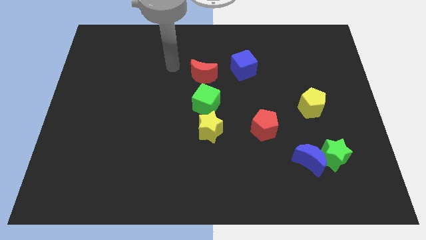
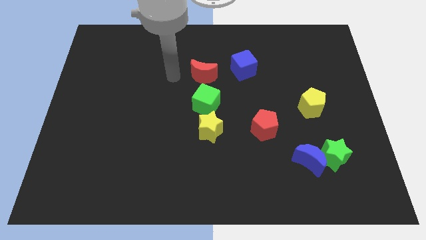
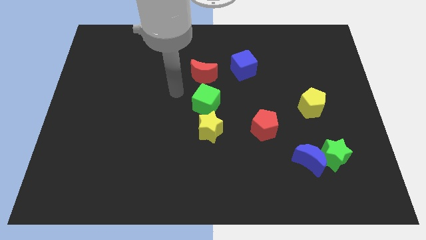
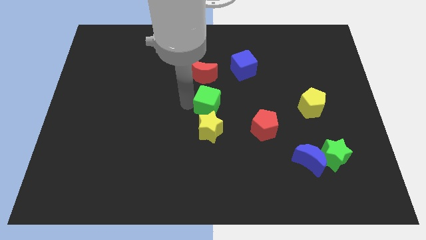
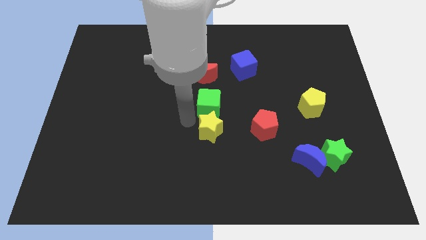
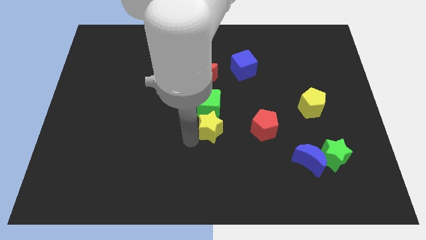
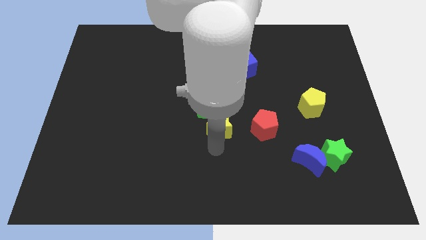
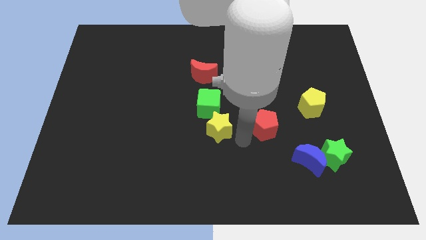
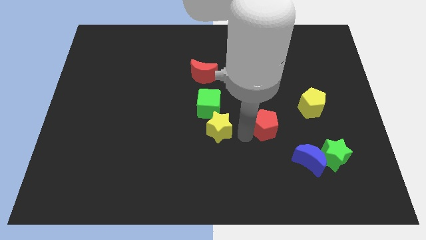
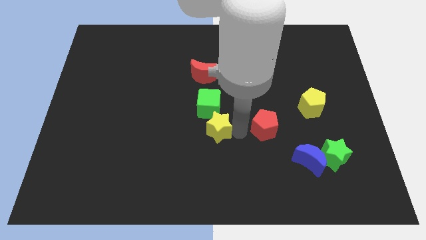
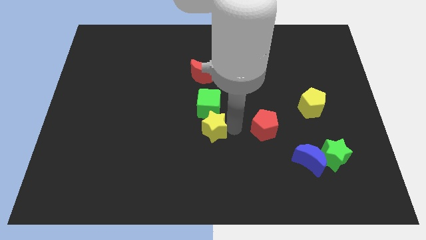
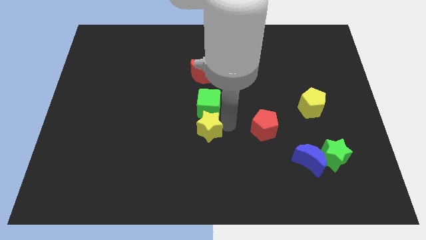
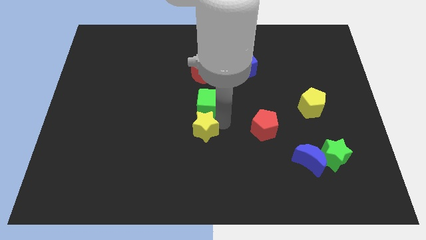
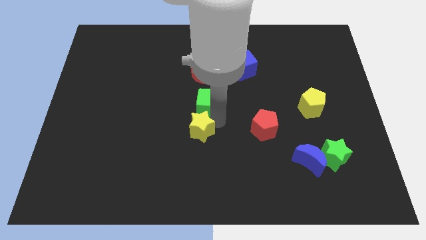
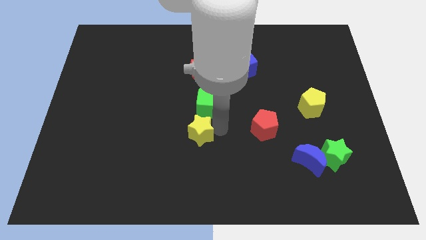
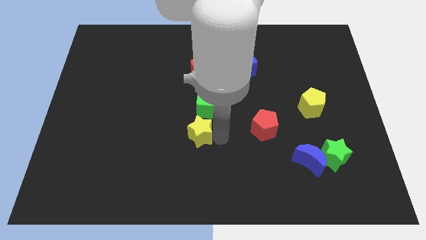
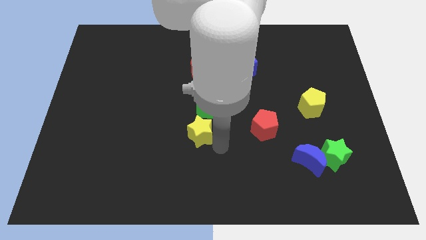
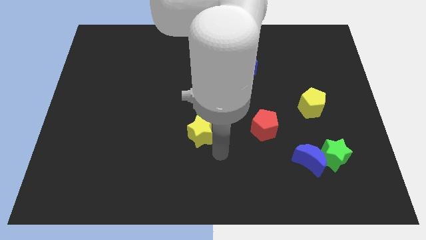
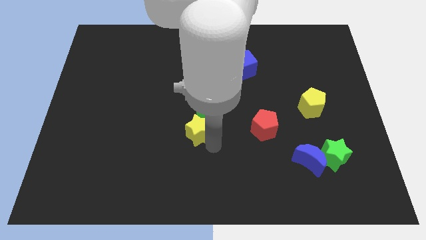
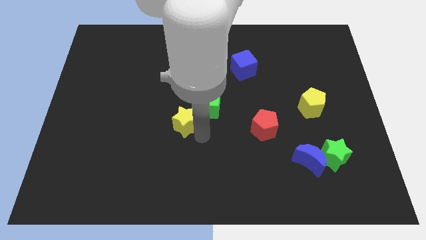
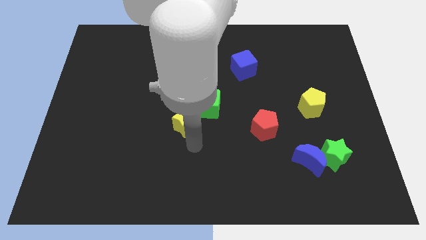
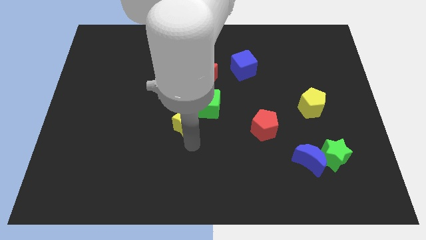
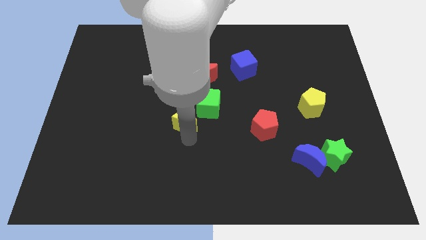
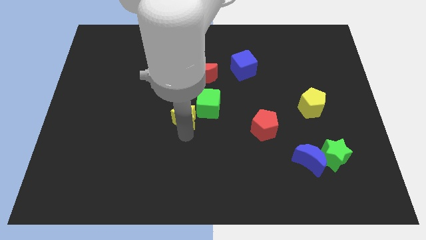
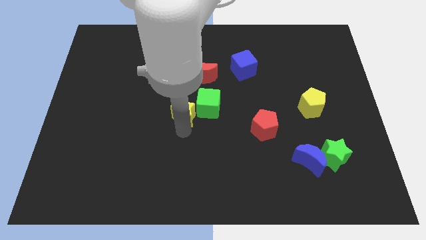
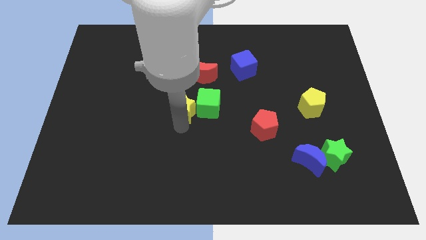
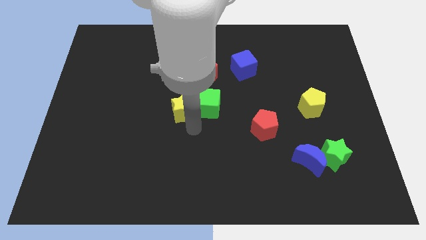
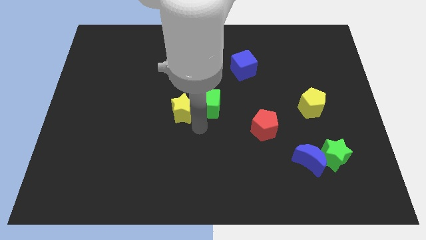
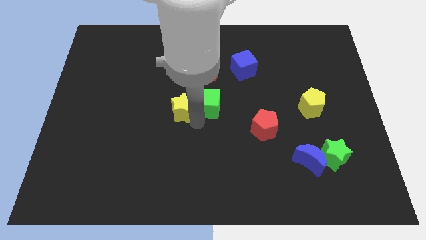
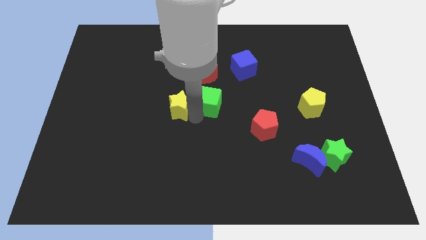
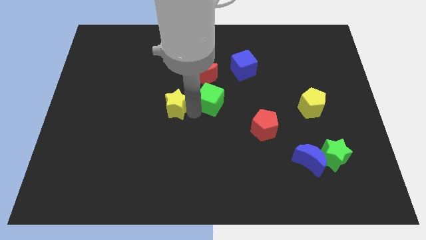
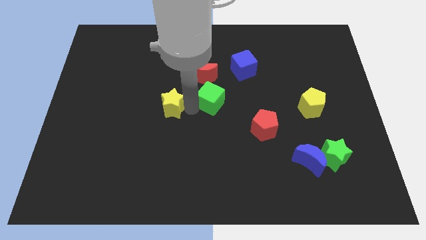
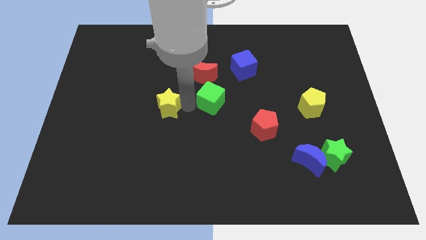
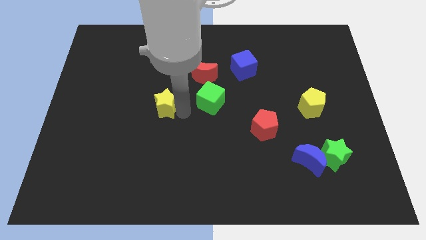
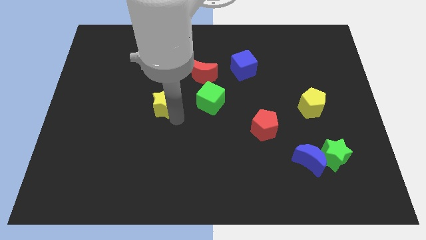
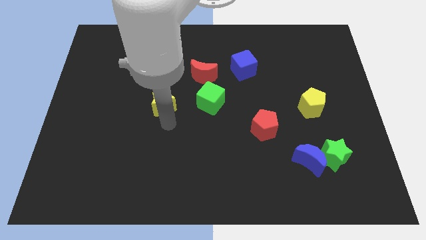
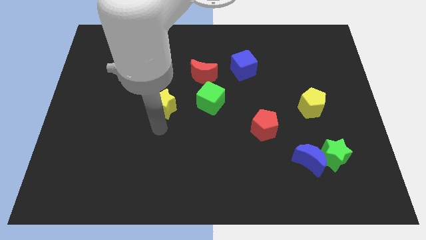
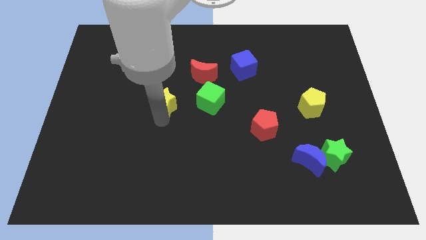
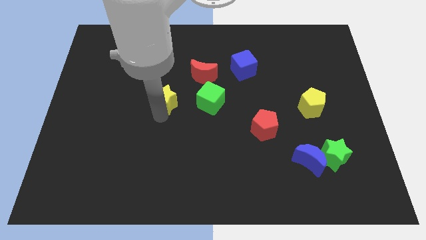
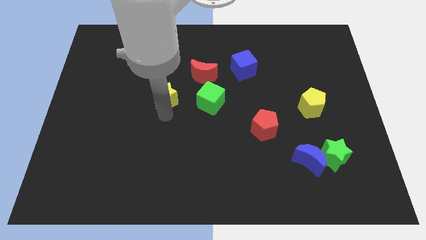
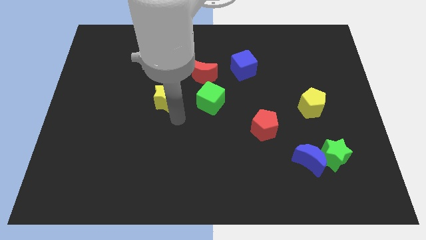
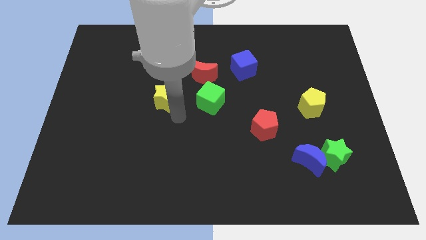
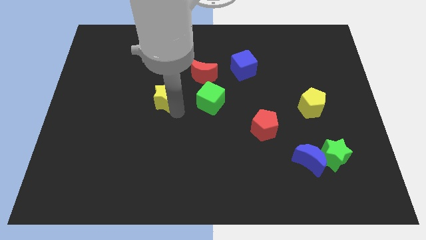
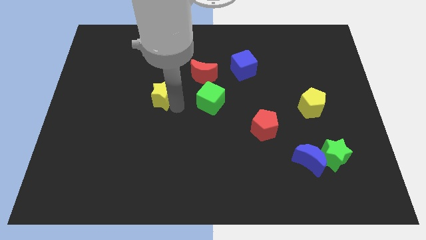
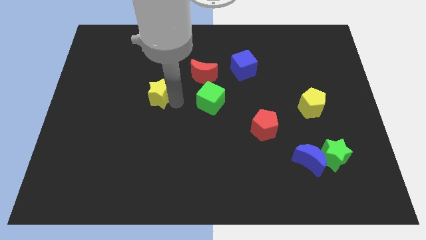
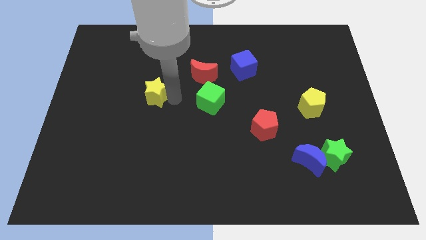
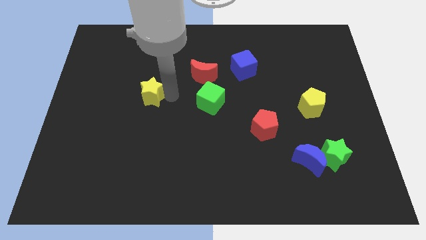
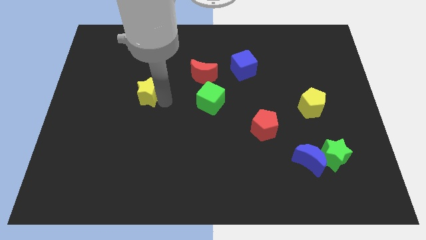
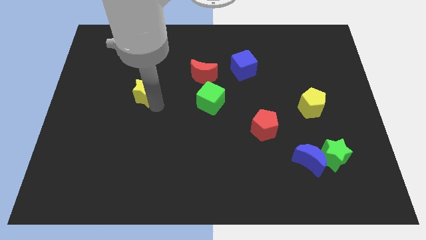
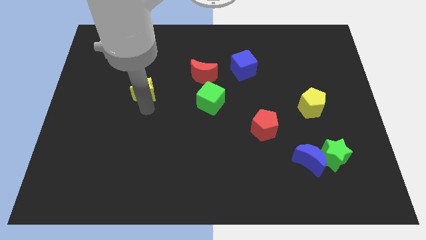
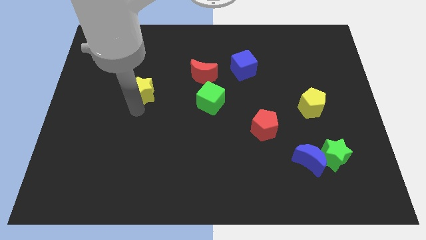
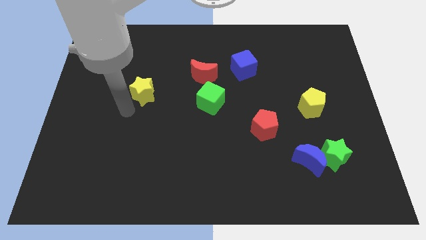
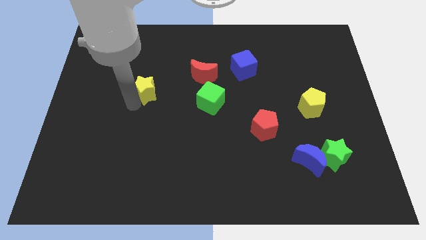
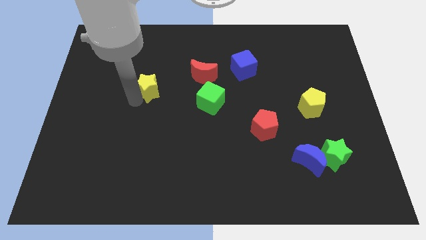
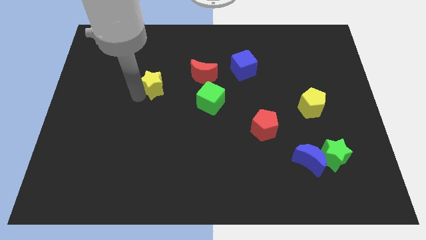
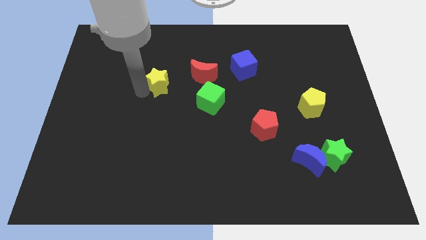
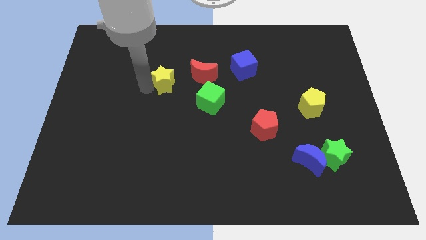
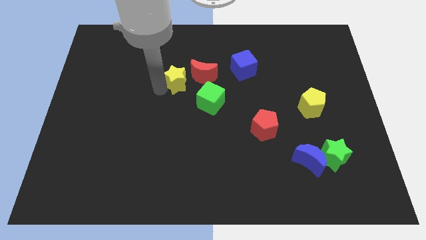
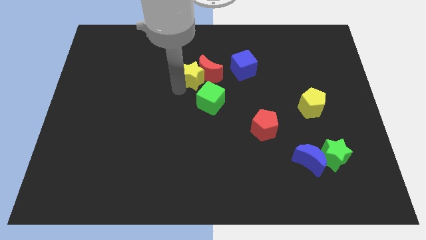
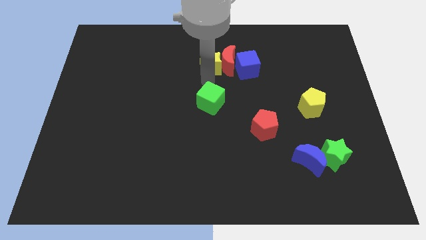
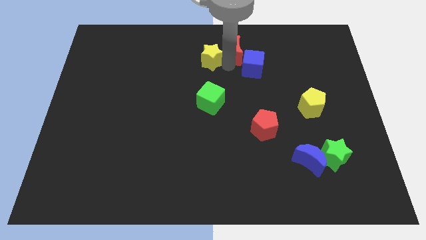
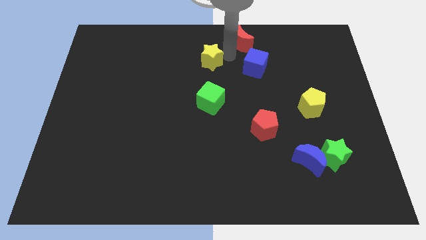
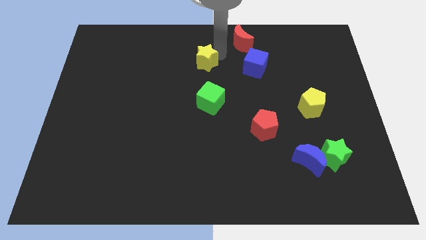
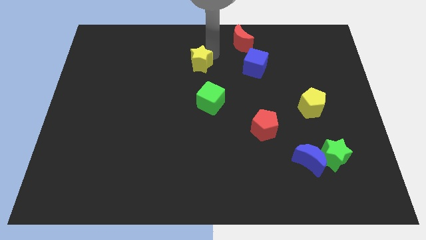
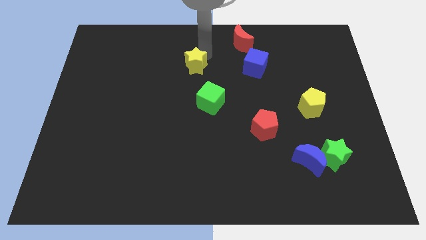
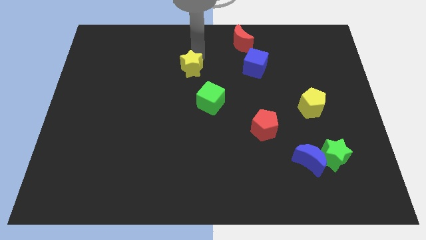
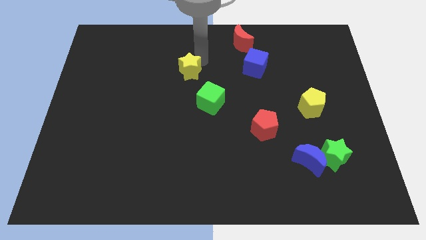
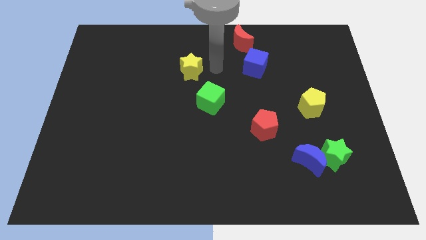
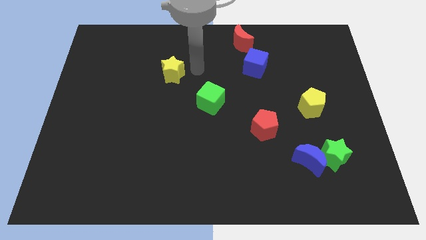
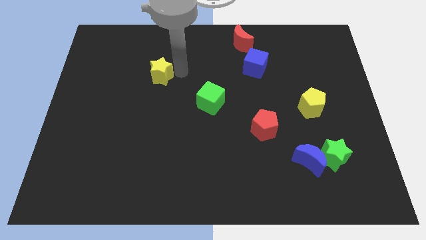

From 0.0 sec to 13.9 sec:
slide the yellow star diagonally up and left

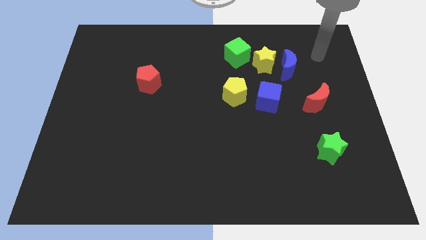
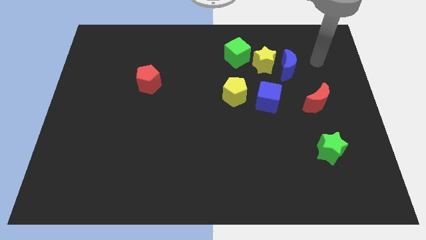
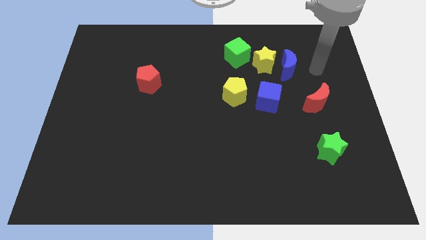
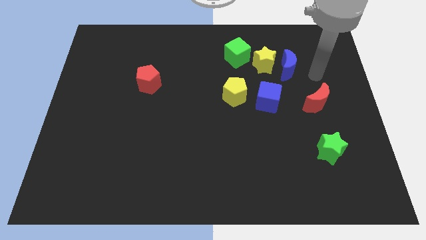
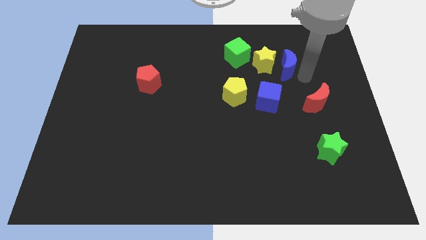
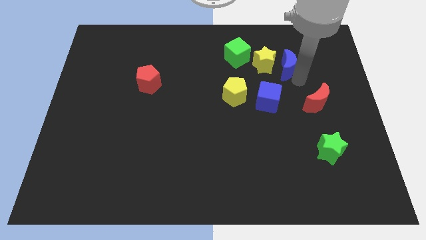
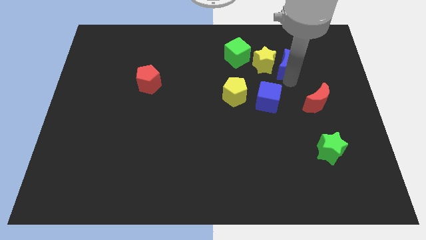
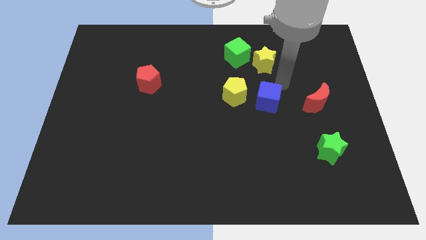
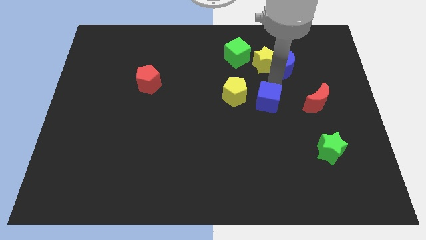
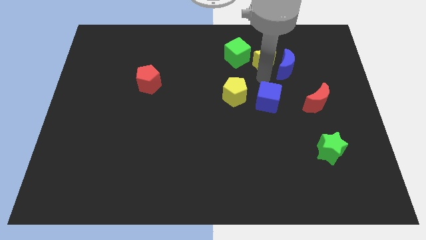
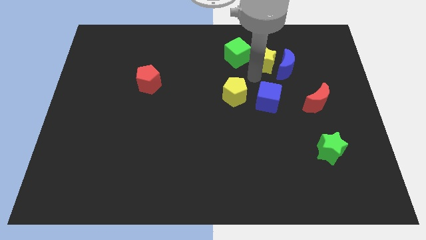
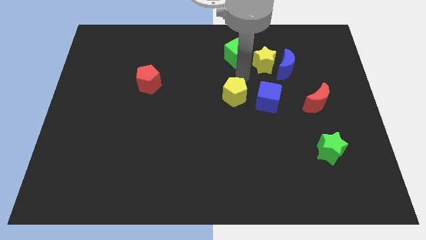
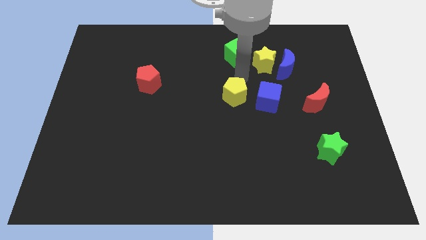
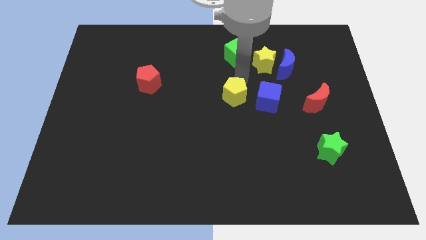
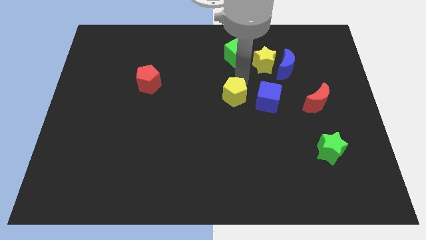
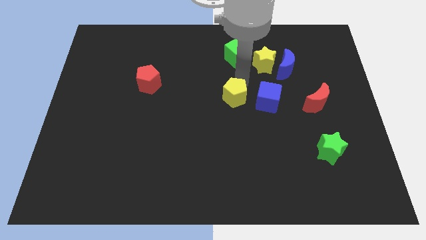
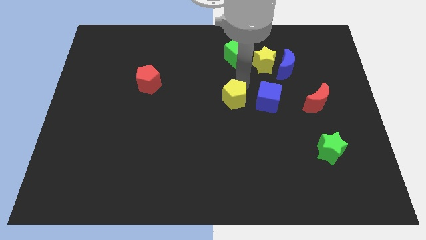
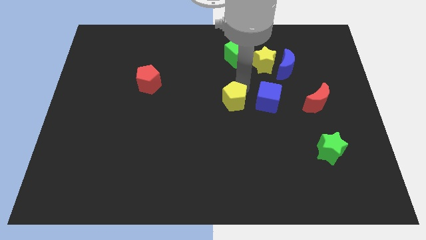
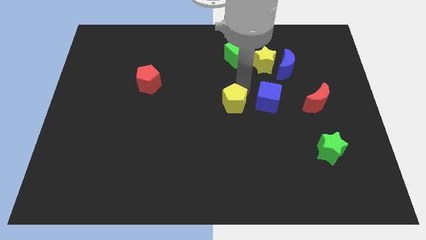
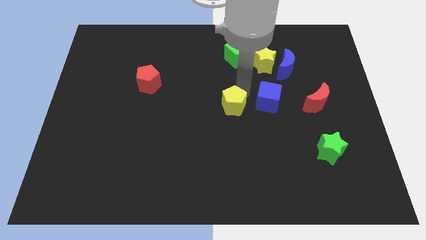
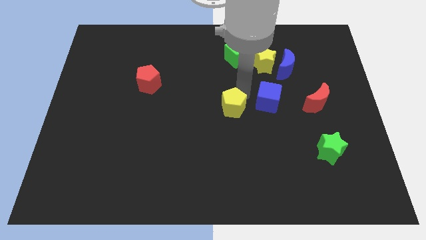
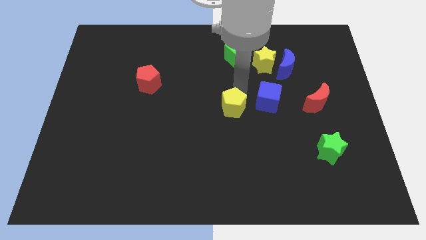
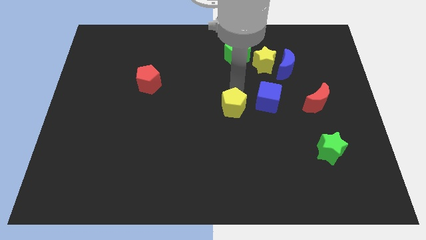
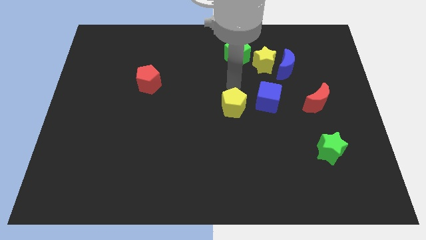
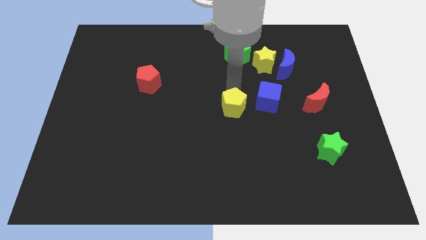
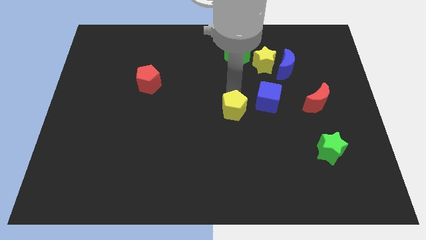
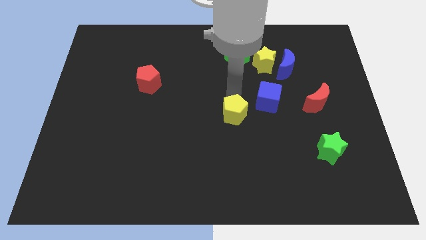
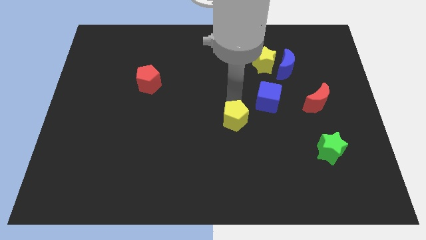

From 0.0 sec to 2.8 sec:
slightly push the yellow pentagon downwards
